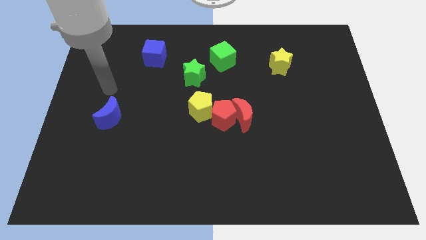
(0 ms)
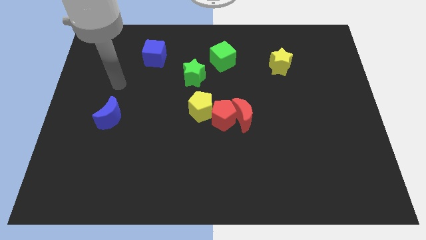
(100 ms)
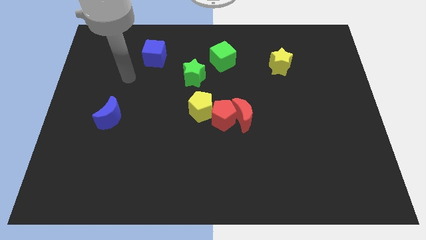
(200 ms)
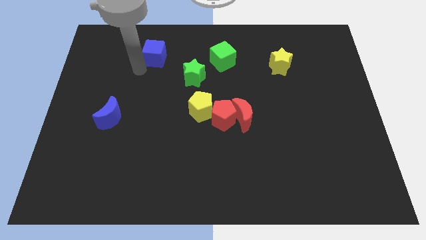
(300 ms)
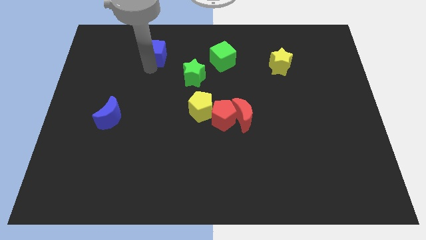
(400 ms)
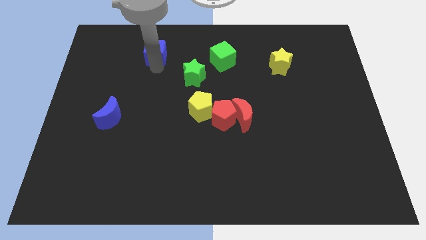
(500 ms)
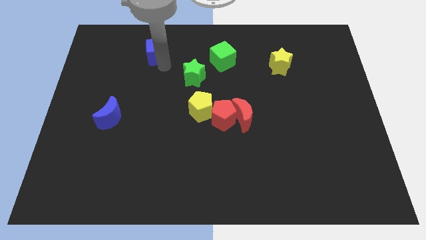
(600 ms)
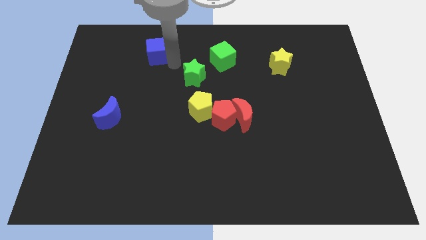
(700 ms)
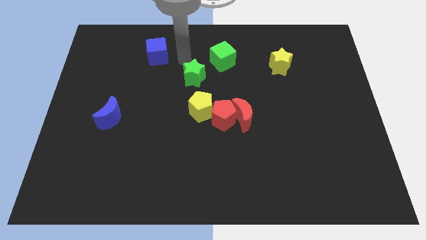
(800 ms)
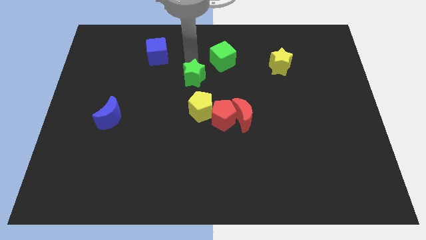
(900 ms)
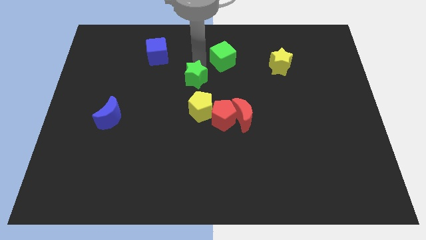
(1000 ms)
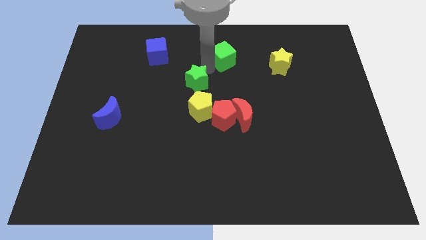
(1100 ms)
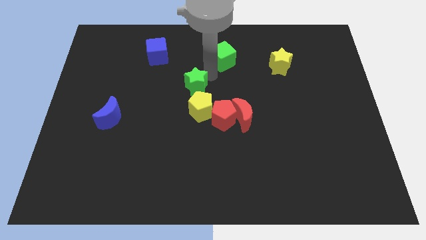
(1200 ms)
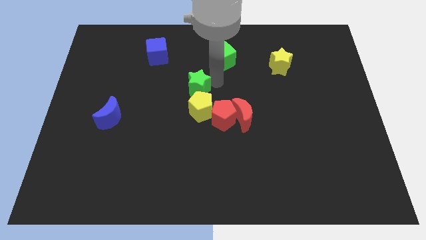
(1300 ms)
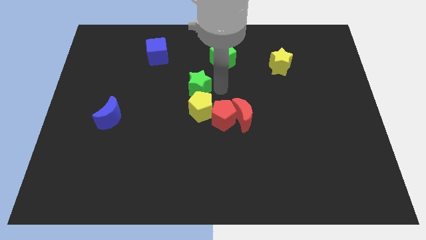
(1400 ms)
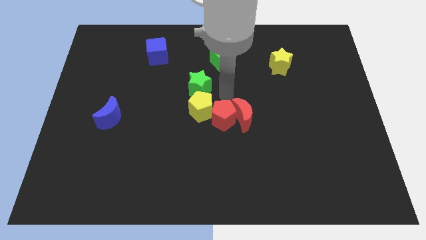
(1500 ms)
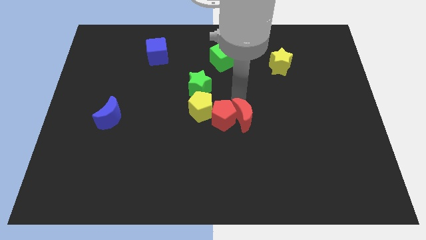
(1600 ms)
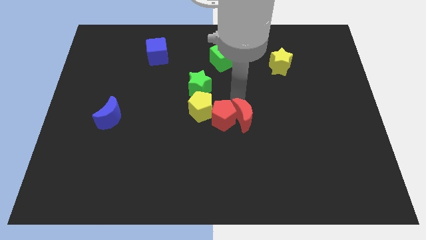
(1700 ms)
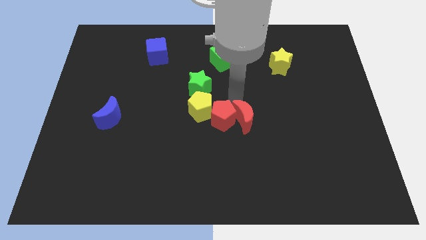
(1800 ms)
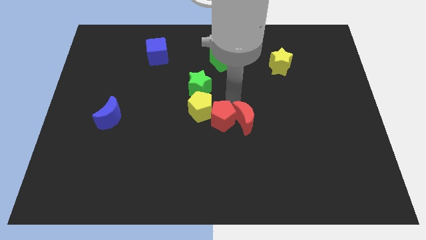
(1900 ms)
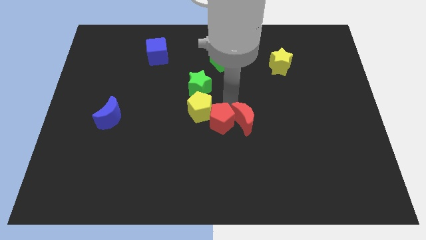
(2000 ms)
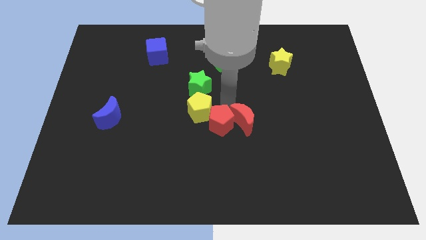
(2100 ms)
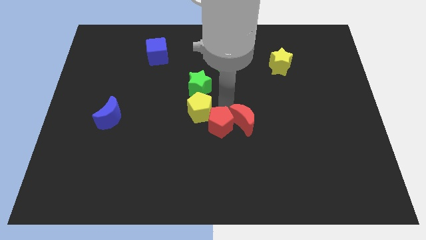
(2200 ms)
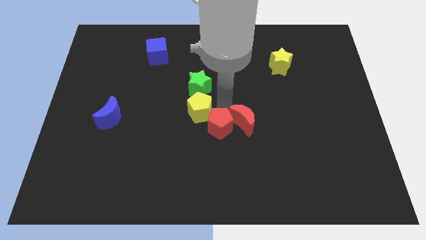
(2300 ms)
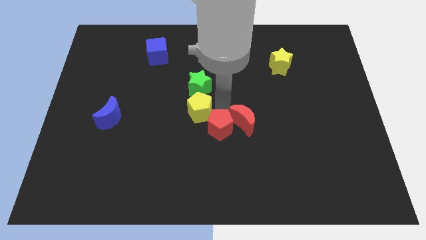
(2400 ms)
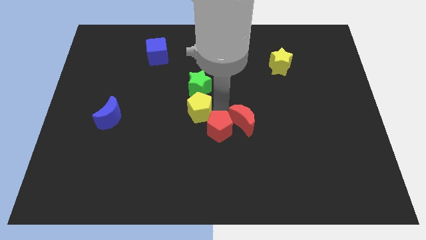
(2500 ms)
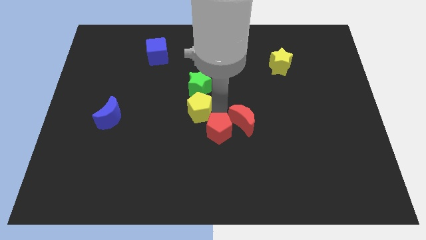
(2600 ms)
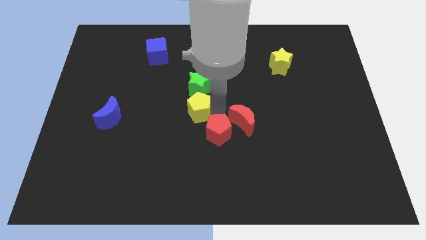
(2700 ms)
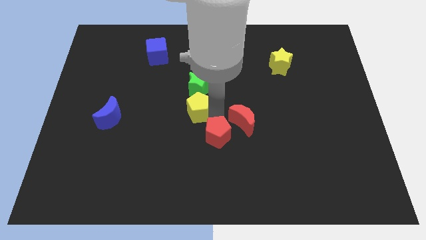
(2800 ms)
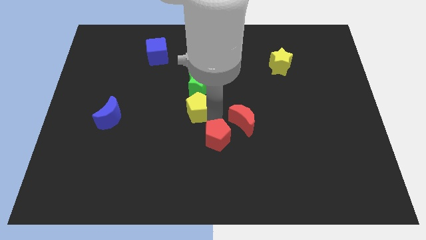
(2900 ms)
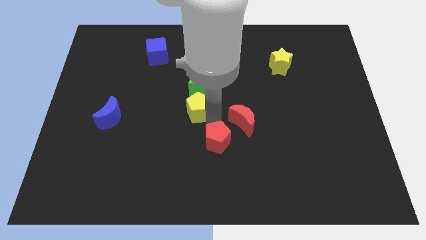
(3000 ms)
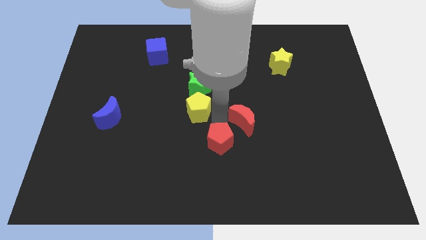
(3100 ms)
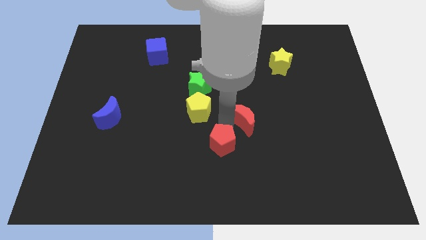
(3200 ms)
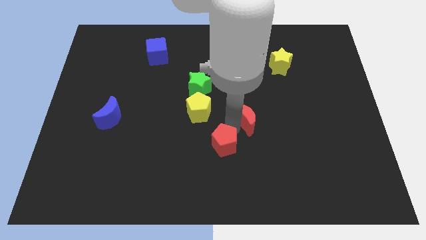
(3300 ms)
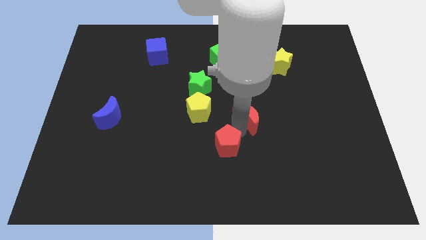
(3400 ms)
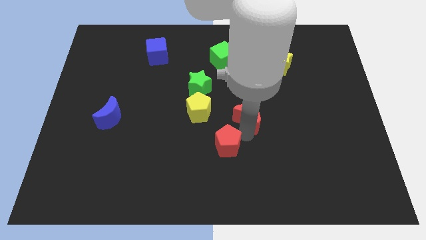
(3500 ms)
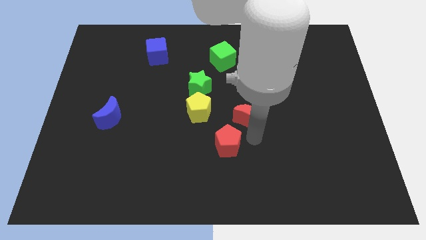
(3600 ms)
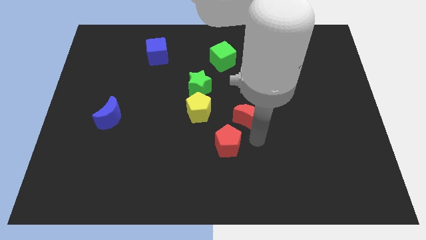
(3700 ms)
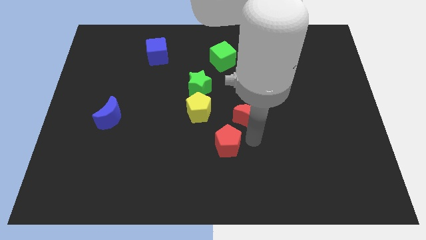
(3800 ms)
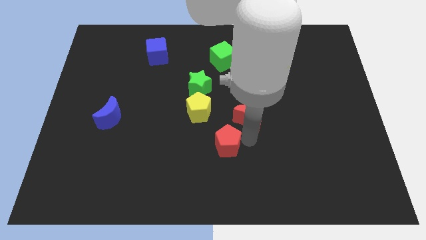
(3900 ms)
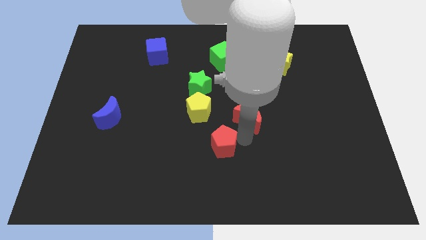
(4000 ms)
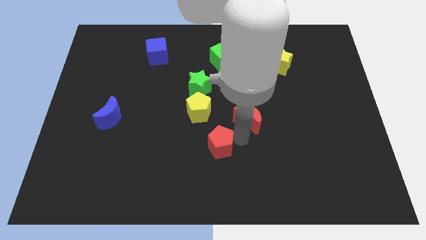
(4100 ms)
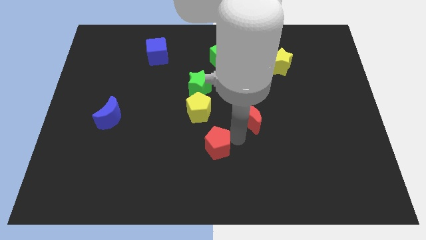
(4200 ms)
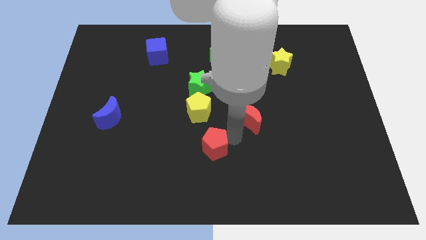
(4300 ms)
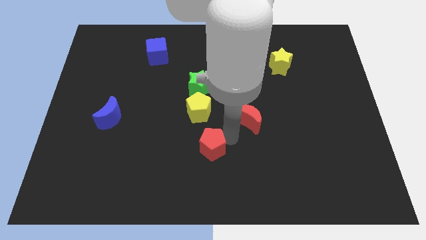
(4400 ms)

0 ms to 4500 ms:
slightly slide the red pentagon diagonally down and to the left

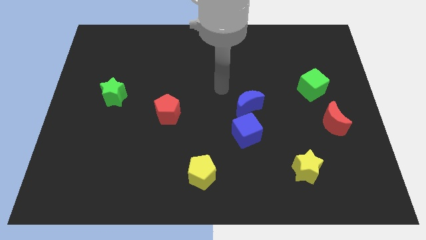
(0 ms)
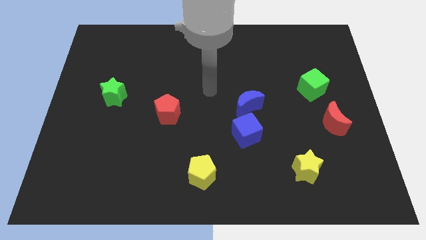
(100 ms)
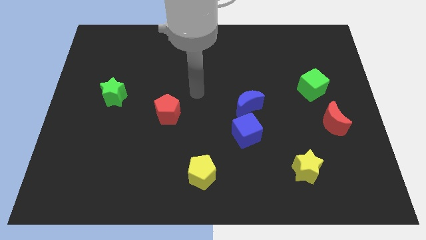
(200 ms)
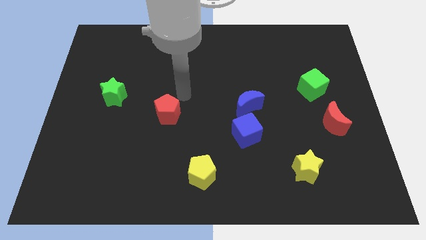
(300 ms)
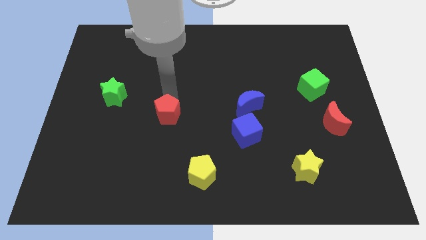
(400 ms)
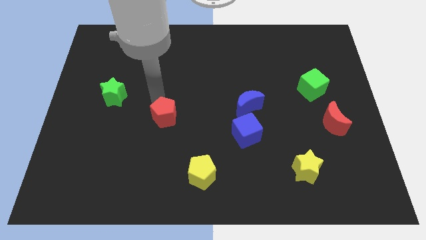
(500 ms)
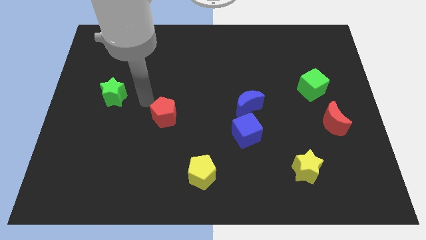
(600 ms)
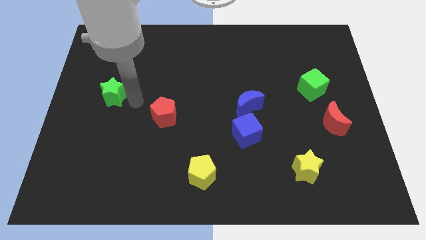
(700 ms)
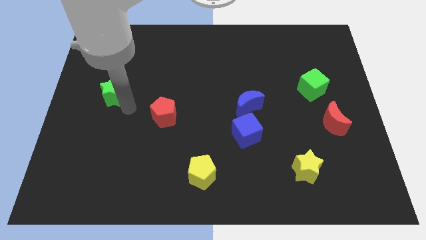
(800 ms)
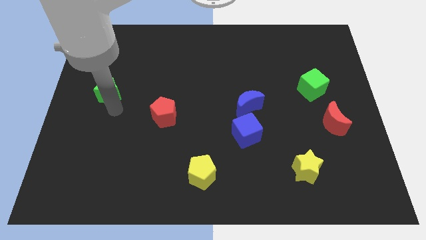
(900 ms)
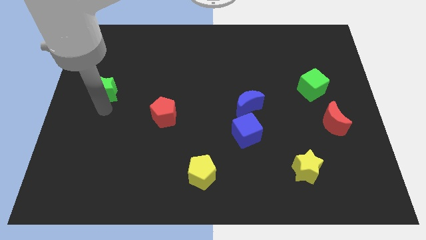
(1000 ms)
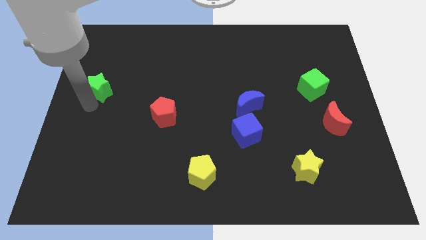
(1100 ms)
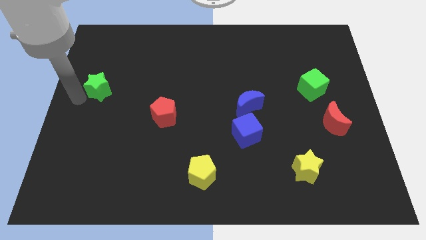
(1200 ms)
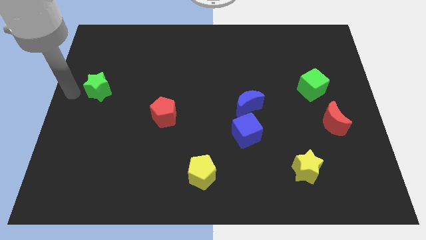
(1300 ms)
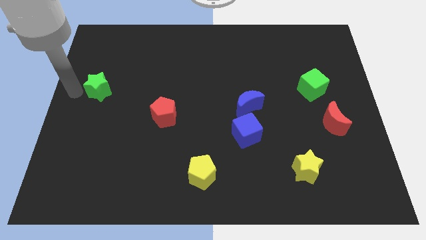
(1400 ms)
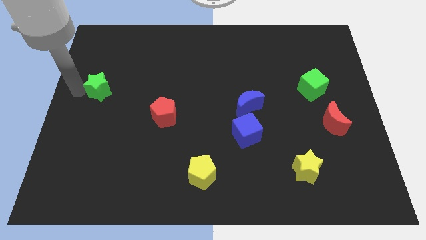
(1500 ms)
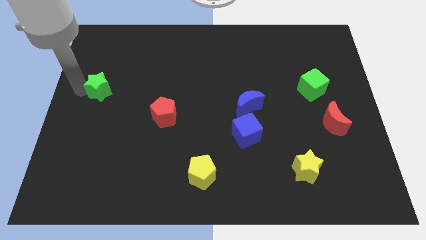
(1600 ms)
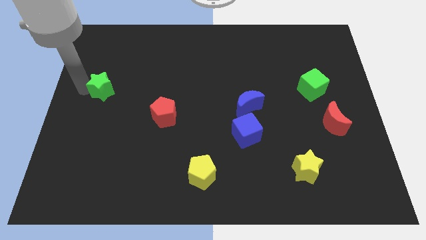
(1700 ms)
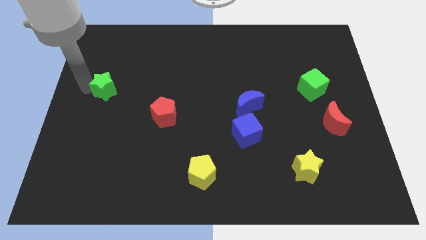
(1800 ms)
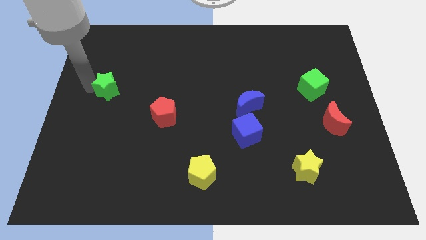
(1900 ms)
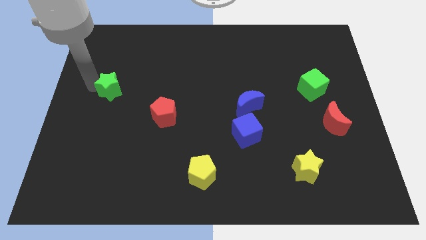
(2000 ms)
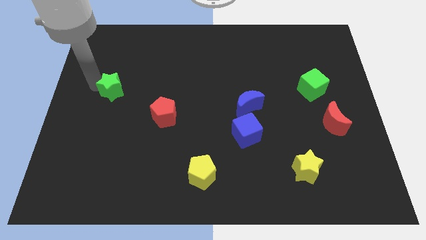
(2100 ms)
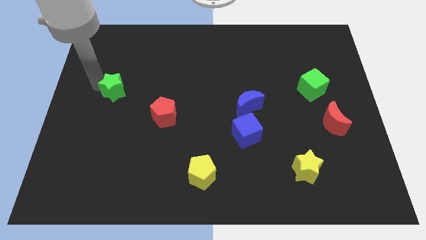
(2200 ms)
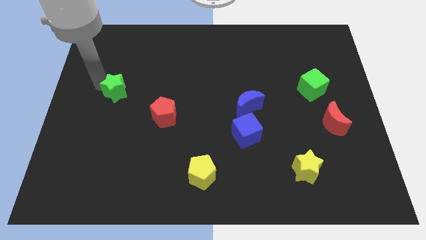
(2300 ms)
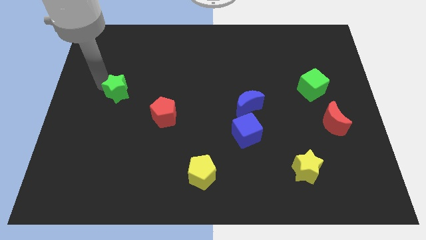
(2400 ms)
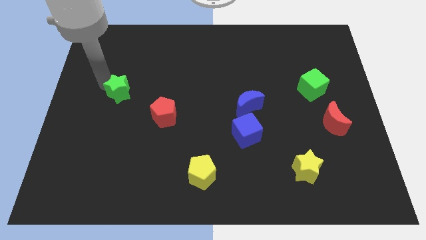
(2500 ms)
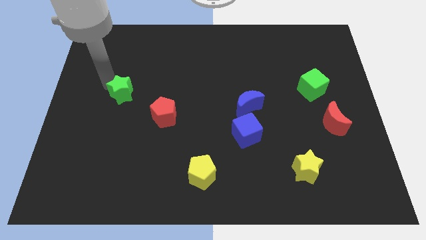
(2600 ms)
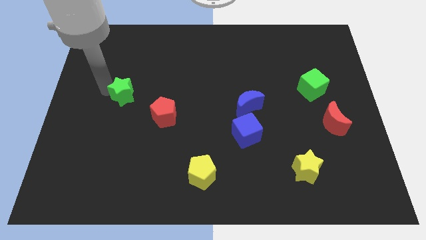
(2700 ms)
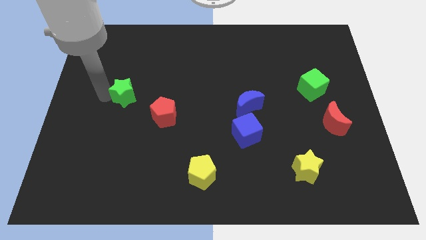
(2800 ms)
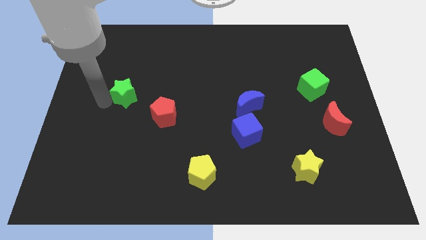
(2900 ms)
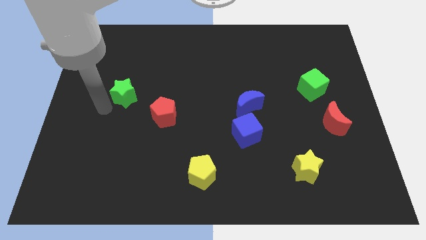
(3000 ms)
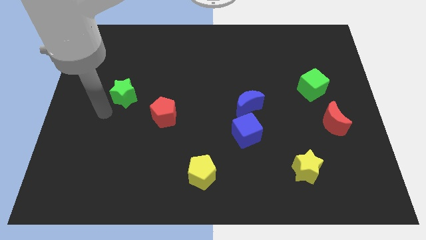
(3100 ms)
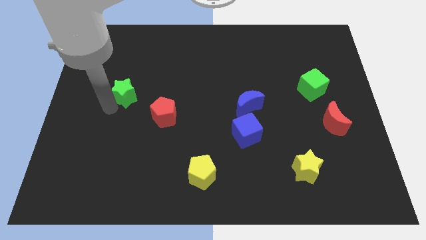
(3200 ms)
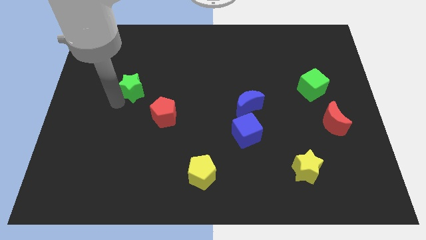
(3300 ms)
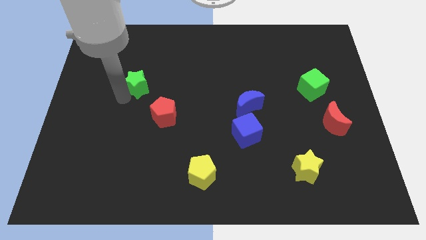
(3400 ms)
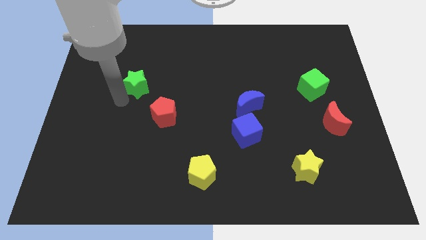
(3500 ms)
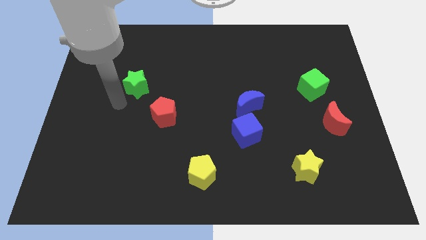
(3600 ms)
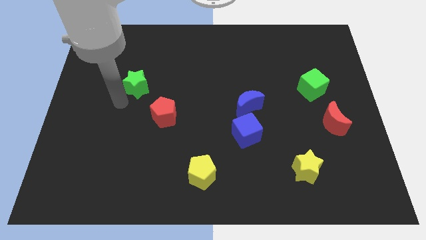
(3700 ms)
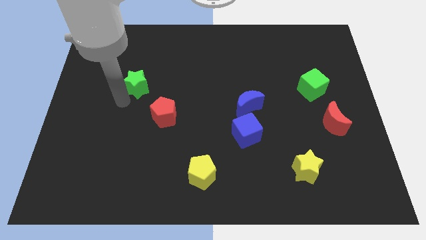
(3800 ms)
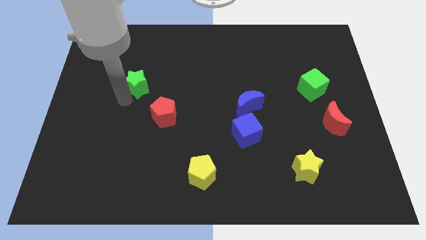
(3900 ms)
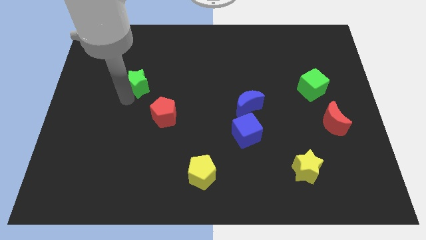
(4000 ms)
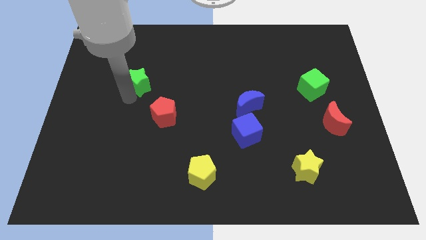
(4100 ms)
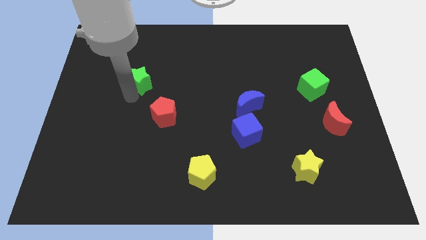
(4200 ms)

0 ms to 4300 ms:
move the green star a little bit up and then right
